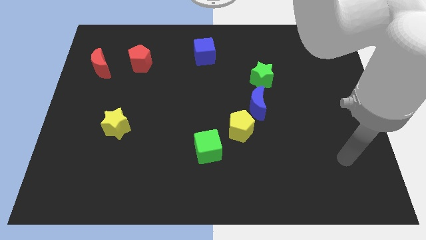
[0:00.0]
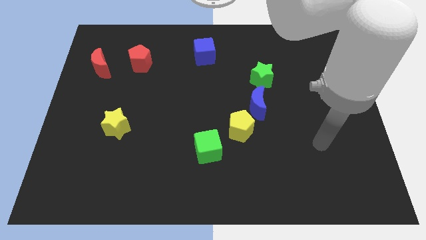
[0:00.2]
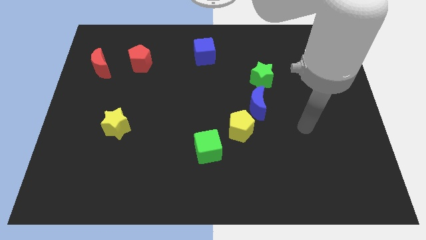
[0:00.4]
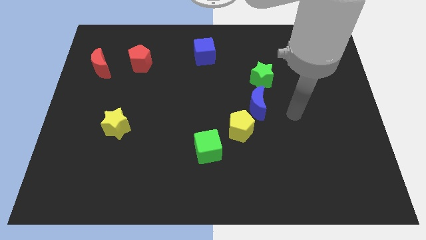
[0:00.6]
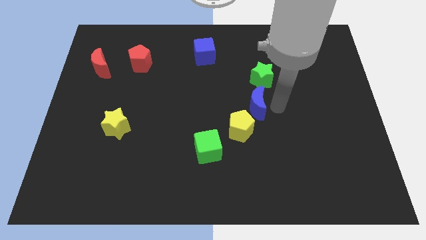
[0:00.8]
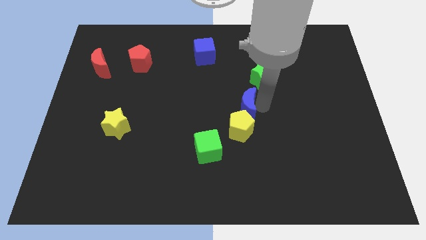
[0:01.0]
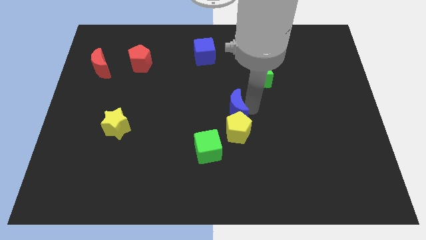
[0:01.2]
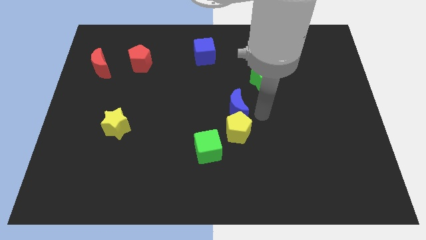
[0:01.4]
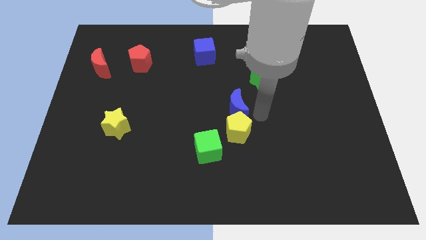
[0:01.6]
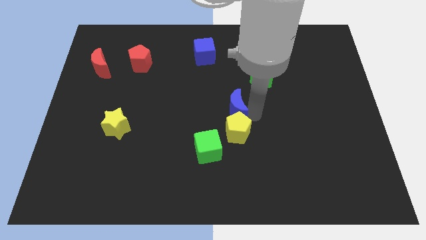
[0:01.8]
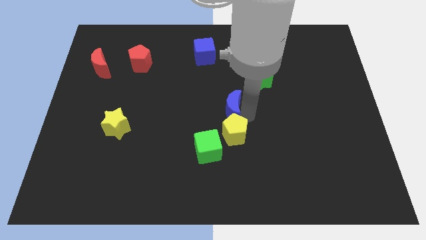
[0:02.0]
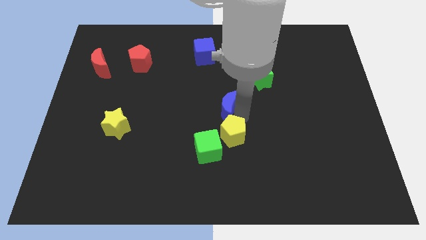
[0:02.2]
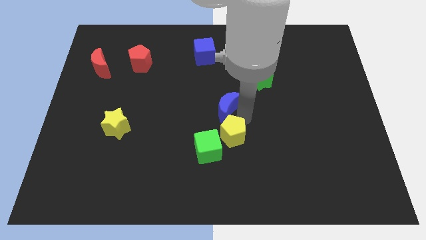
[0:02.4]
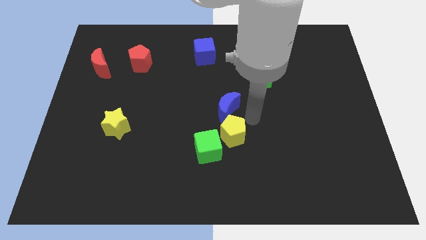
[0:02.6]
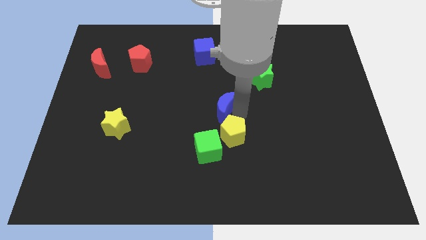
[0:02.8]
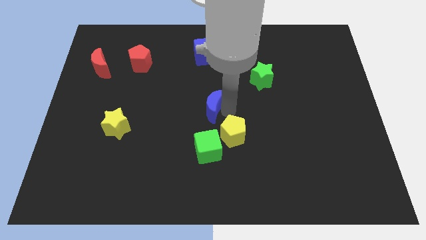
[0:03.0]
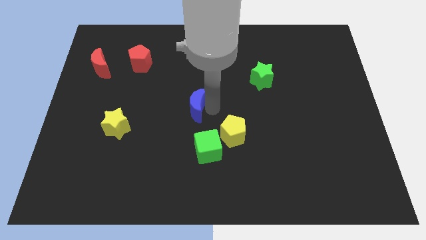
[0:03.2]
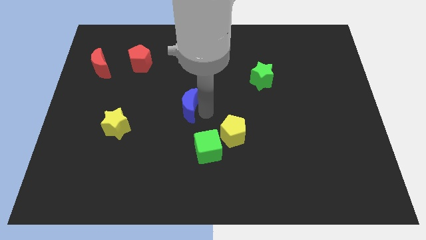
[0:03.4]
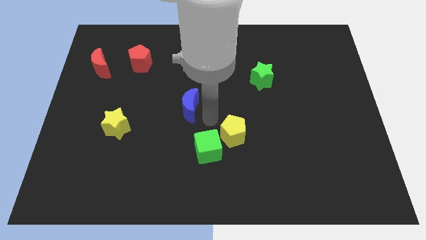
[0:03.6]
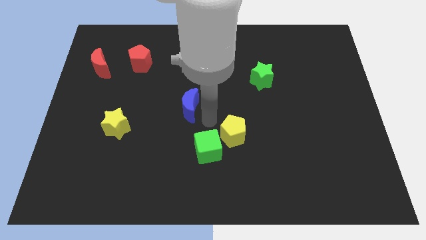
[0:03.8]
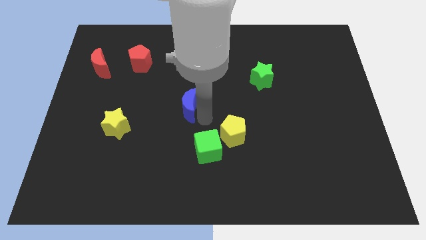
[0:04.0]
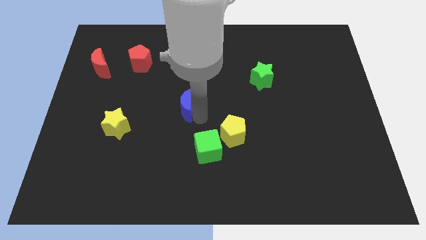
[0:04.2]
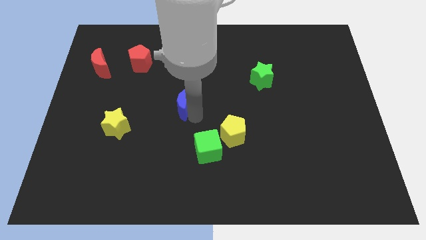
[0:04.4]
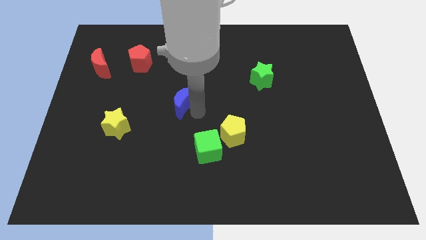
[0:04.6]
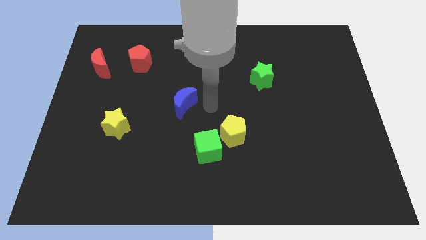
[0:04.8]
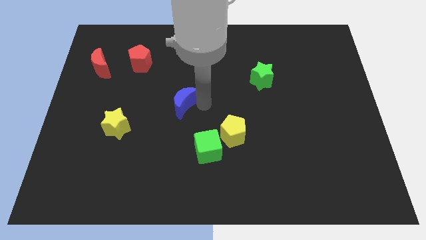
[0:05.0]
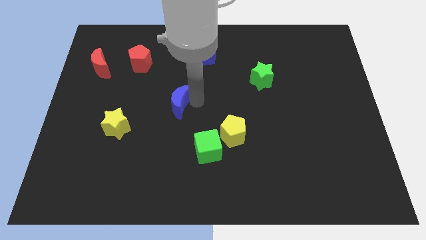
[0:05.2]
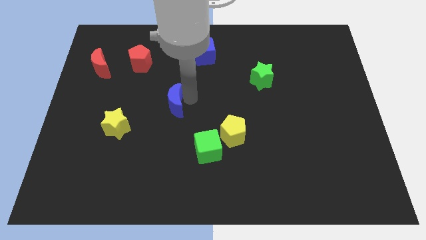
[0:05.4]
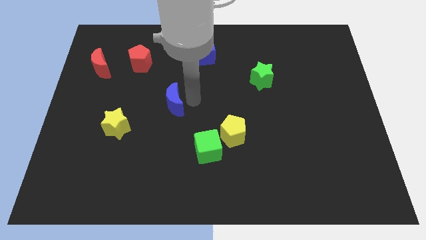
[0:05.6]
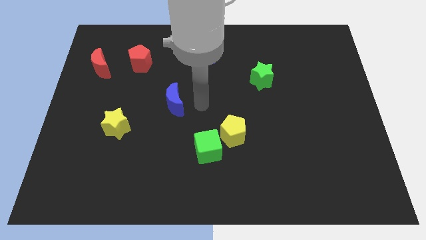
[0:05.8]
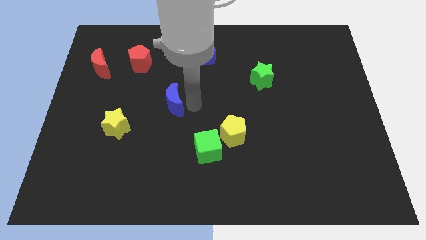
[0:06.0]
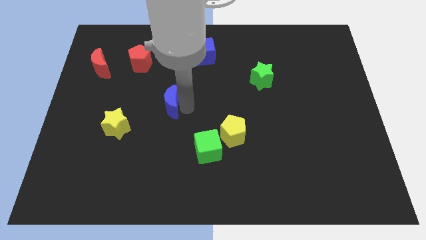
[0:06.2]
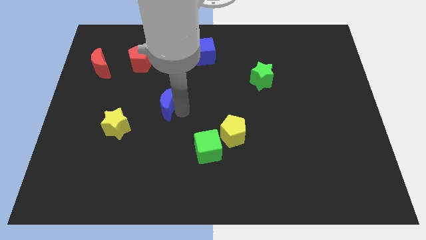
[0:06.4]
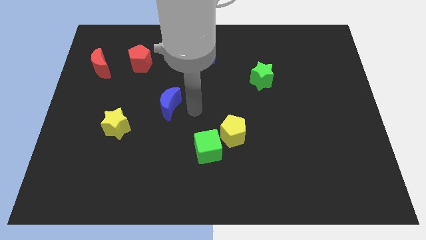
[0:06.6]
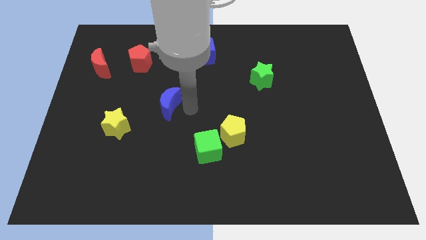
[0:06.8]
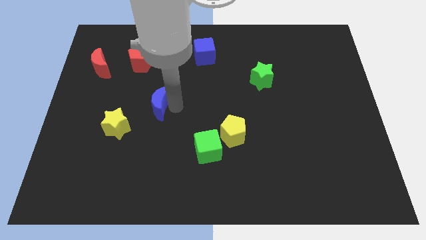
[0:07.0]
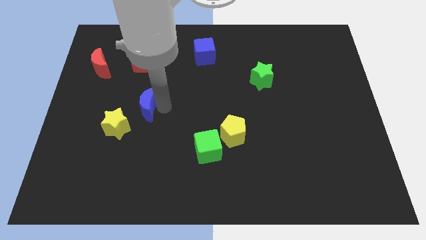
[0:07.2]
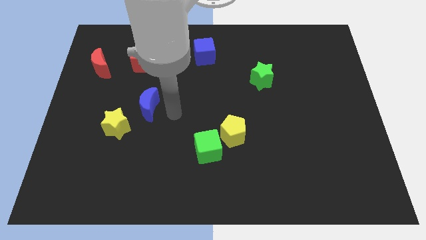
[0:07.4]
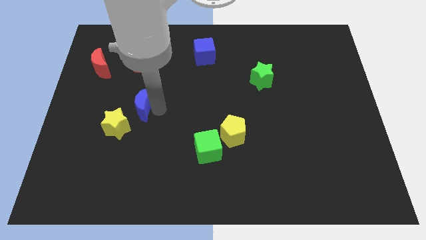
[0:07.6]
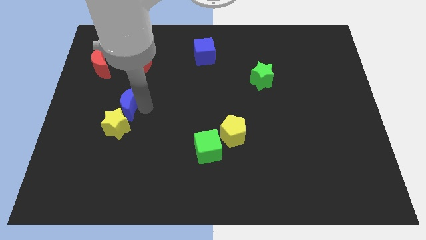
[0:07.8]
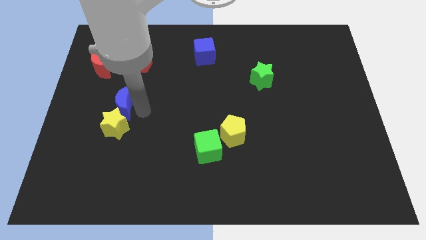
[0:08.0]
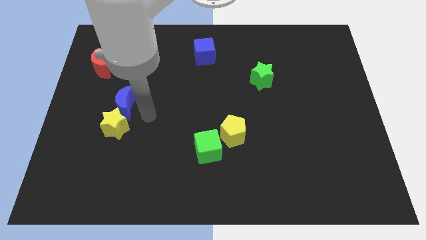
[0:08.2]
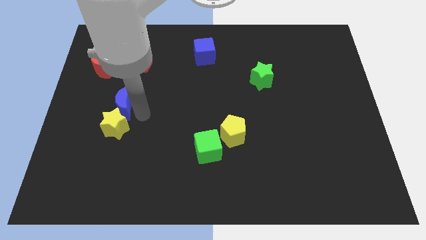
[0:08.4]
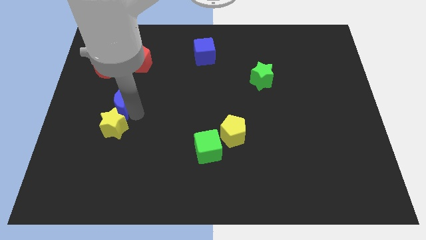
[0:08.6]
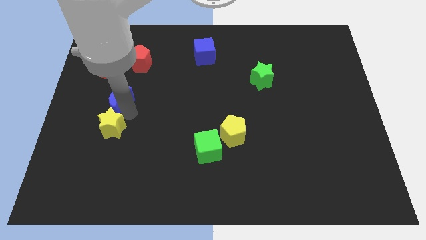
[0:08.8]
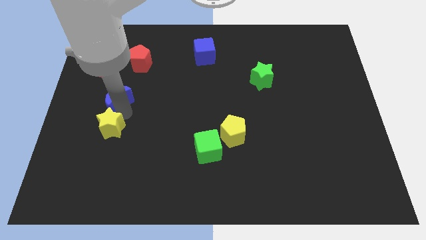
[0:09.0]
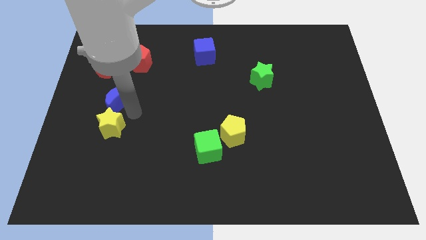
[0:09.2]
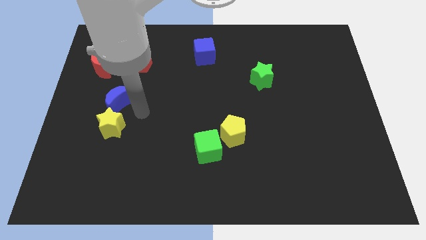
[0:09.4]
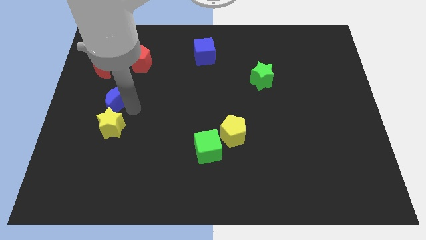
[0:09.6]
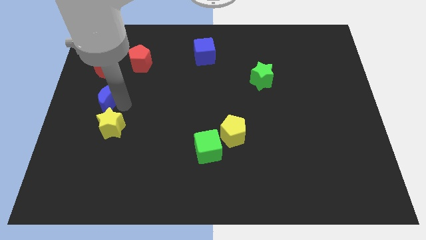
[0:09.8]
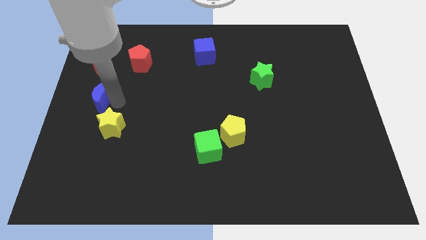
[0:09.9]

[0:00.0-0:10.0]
slide the blue moon to the left side

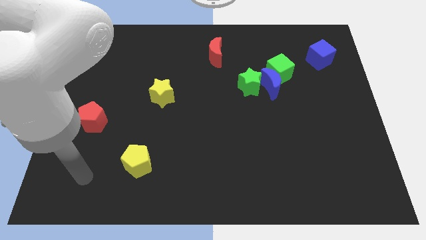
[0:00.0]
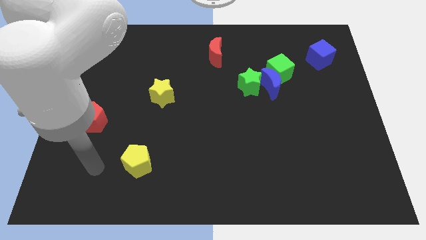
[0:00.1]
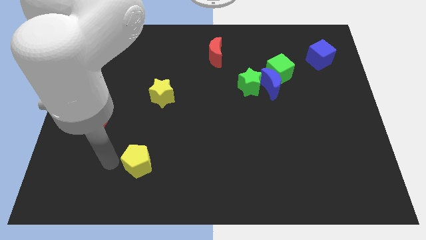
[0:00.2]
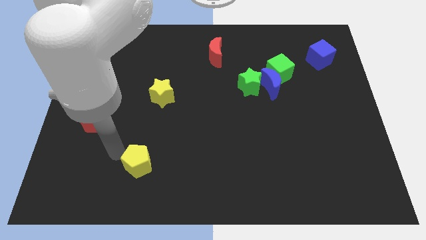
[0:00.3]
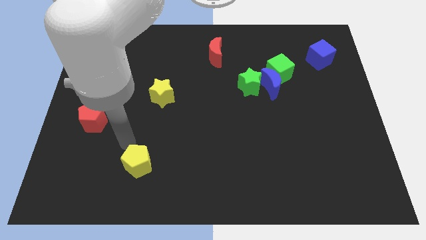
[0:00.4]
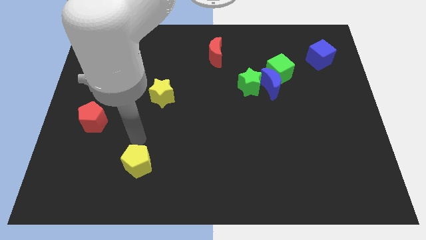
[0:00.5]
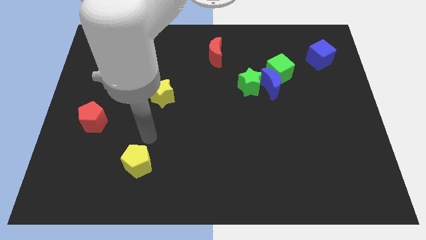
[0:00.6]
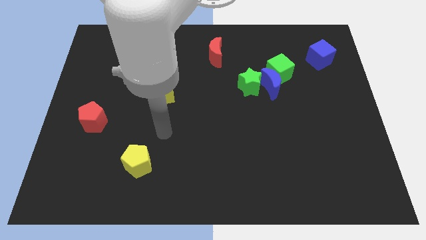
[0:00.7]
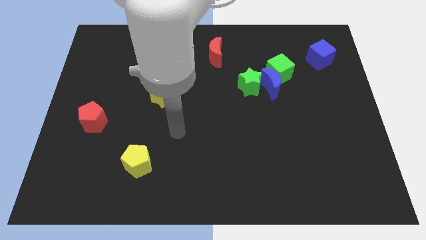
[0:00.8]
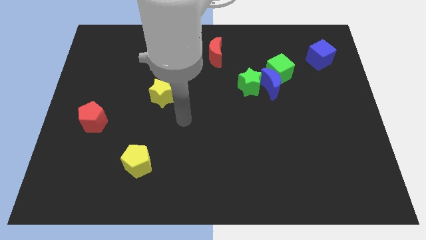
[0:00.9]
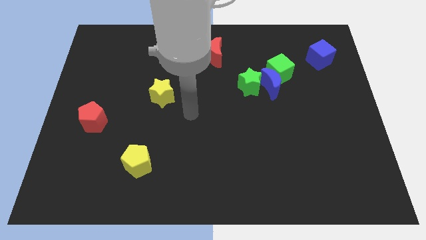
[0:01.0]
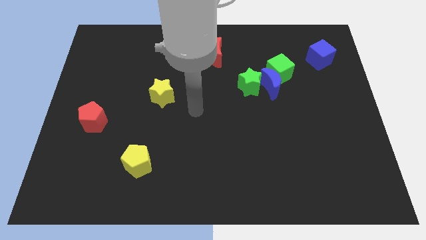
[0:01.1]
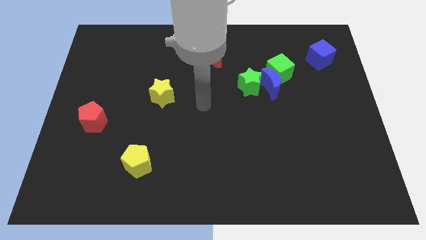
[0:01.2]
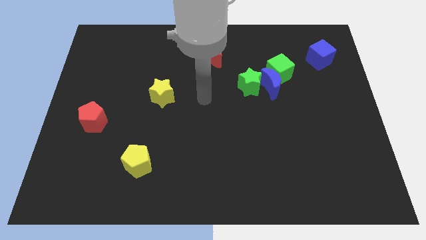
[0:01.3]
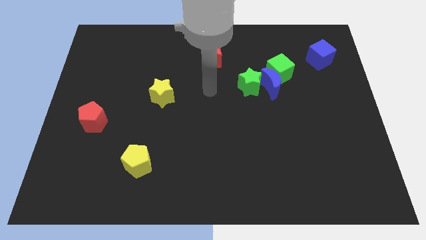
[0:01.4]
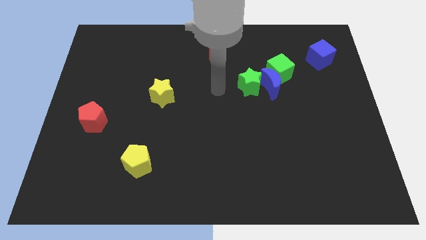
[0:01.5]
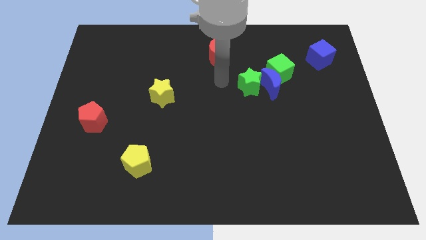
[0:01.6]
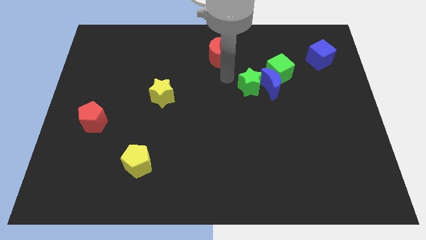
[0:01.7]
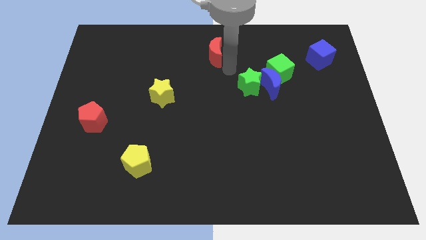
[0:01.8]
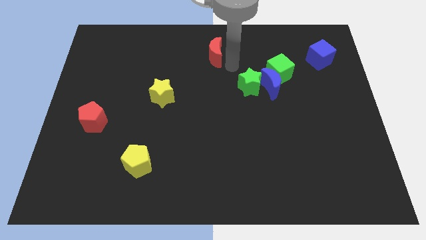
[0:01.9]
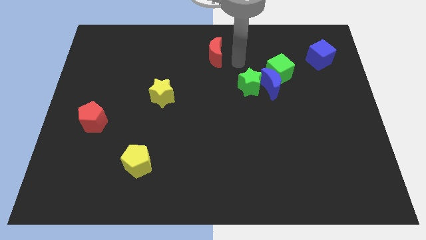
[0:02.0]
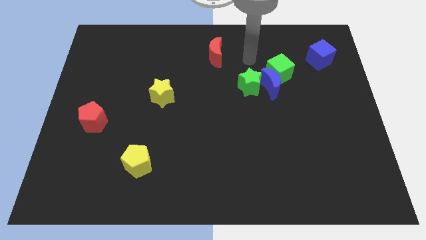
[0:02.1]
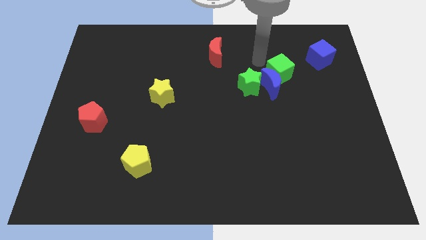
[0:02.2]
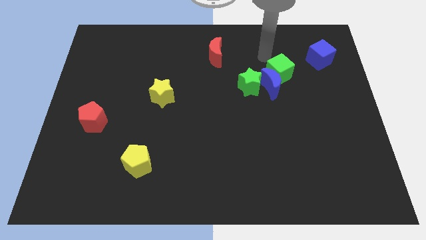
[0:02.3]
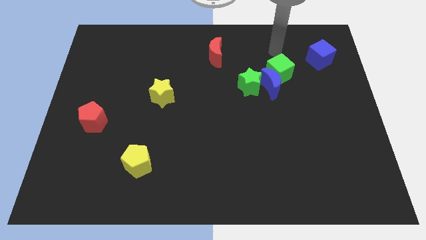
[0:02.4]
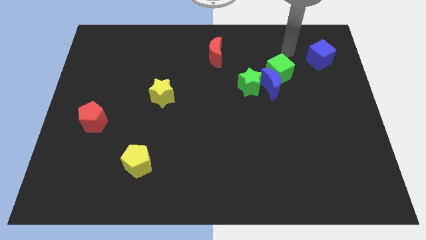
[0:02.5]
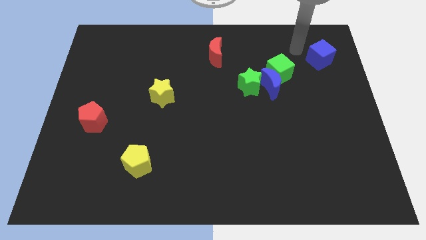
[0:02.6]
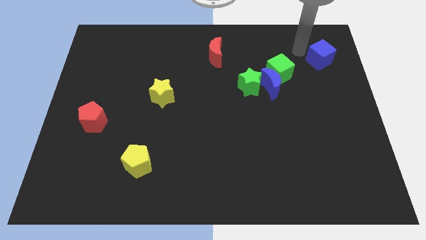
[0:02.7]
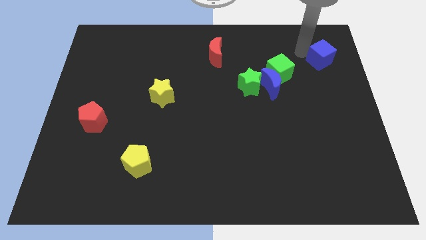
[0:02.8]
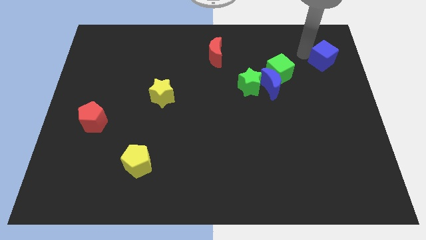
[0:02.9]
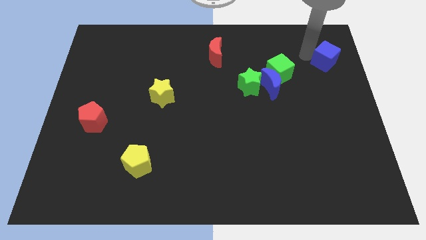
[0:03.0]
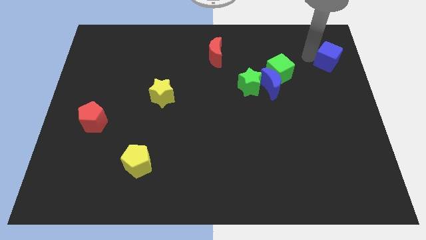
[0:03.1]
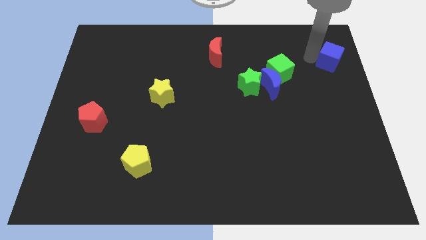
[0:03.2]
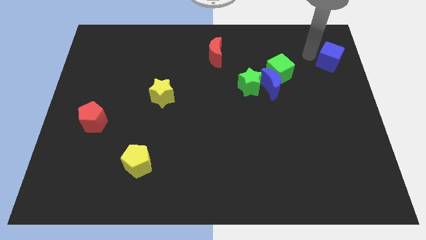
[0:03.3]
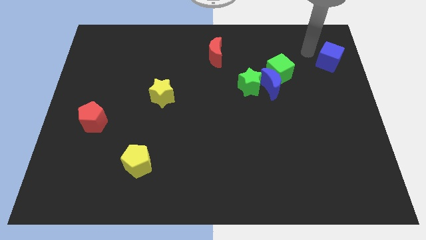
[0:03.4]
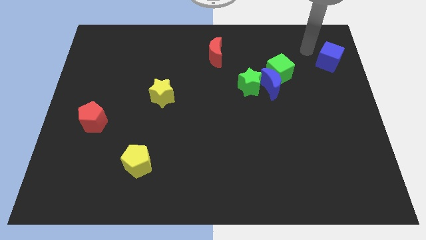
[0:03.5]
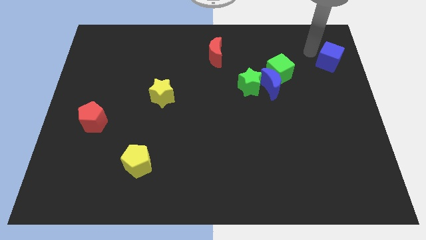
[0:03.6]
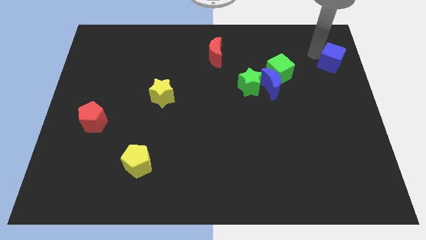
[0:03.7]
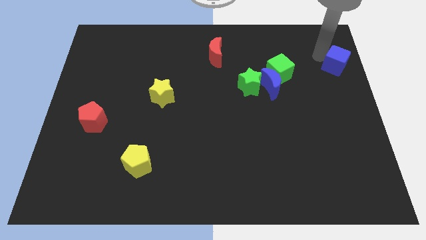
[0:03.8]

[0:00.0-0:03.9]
slide the blue cube to the center right
